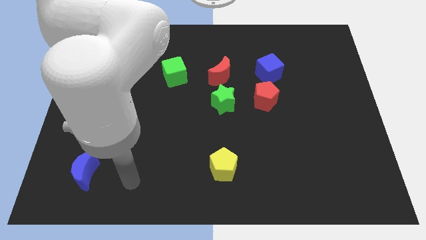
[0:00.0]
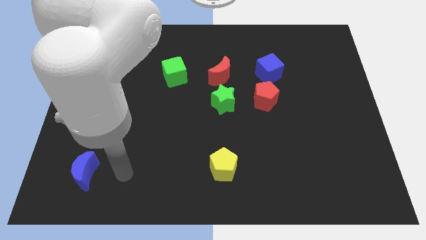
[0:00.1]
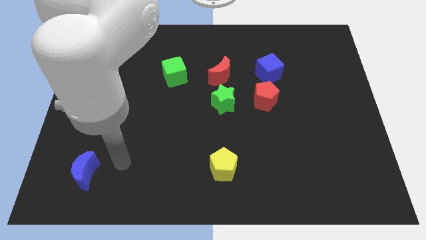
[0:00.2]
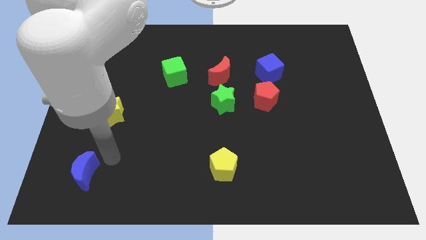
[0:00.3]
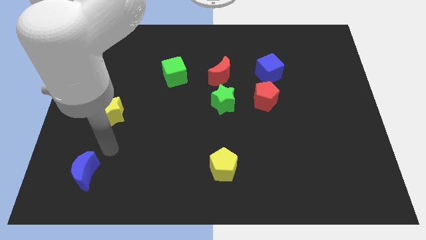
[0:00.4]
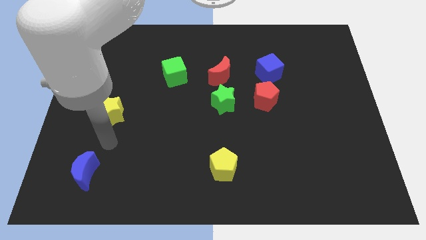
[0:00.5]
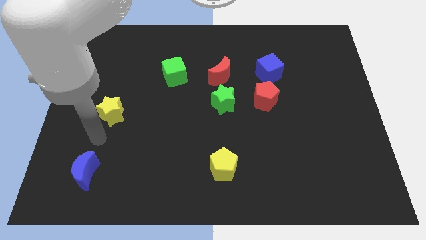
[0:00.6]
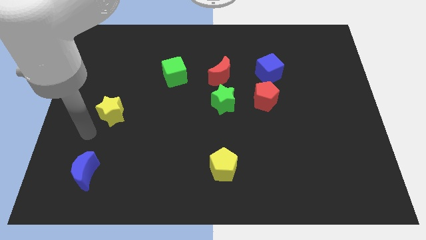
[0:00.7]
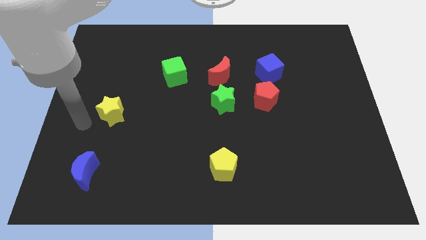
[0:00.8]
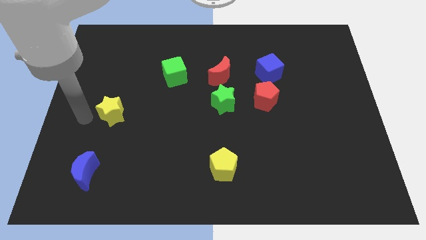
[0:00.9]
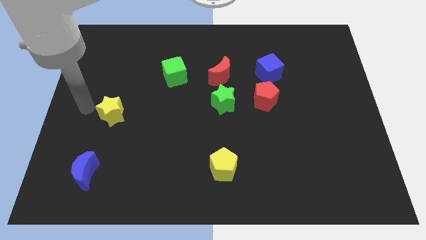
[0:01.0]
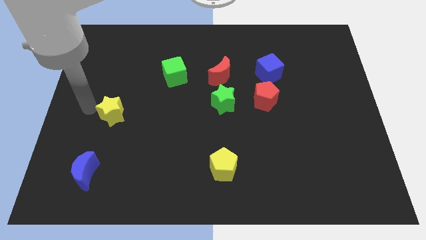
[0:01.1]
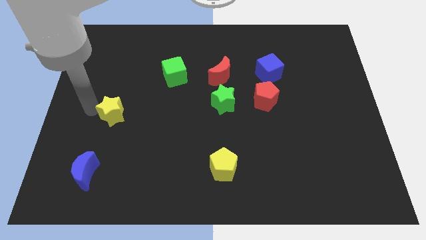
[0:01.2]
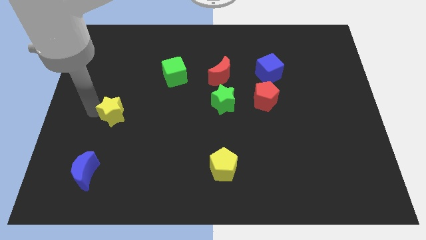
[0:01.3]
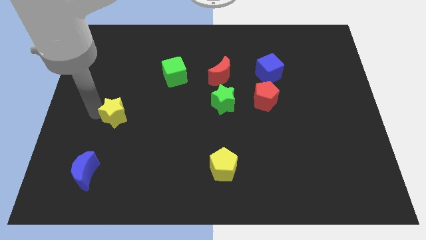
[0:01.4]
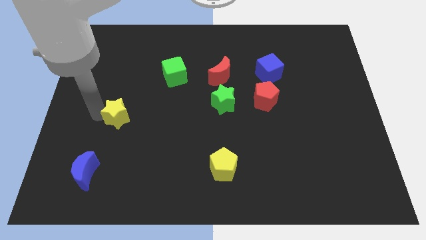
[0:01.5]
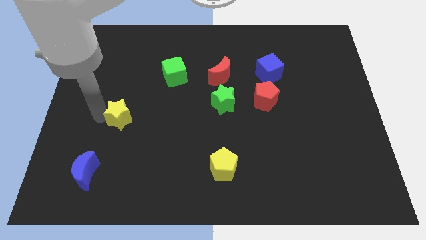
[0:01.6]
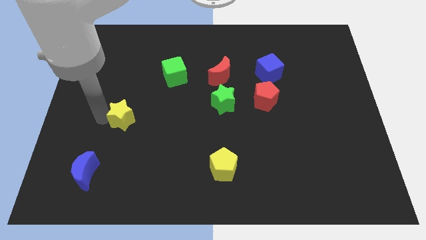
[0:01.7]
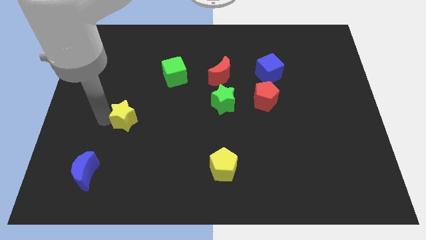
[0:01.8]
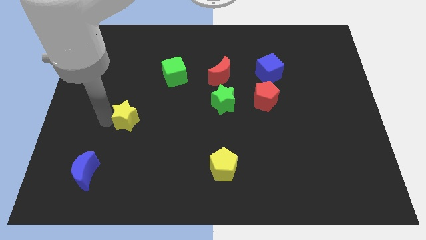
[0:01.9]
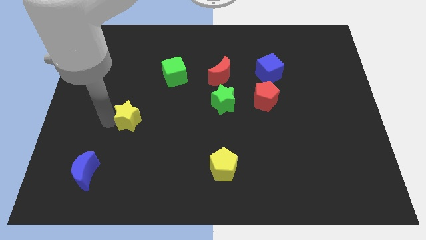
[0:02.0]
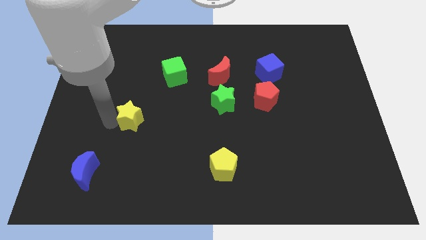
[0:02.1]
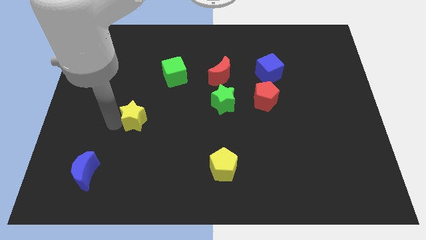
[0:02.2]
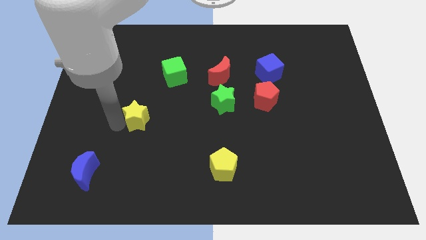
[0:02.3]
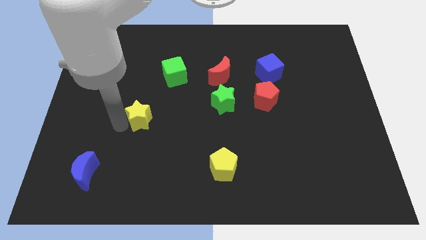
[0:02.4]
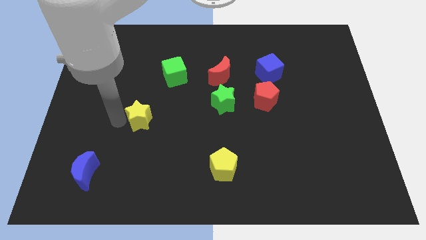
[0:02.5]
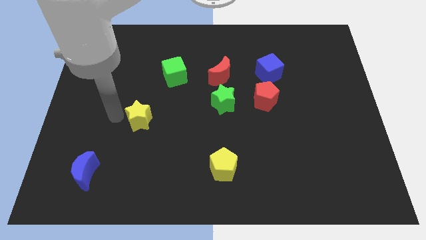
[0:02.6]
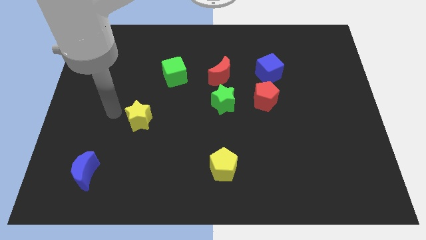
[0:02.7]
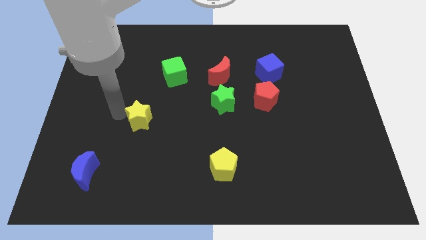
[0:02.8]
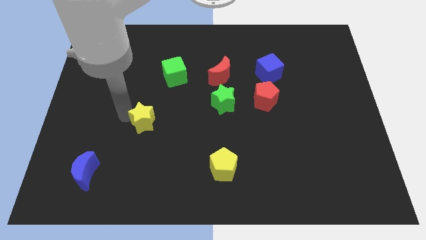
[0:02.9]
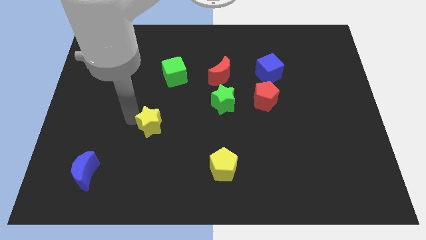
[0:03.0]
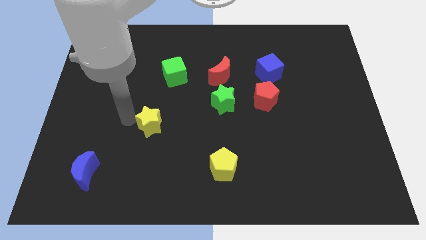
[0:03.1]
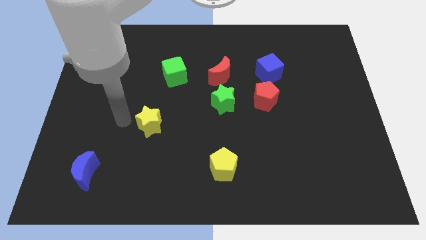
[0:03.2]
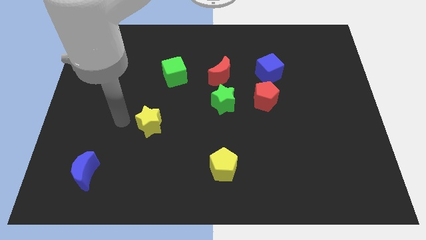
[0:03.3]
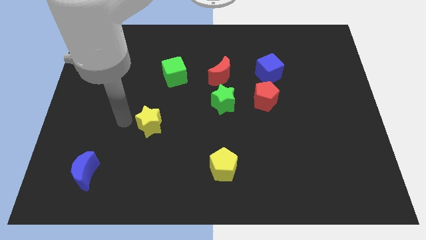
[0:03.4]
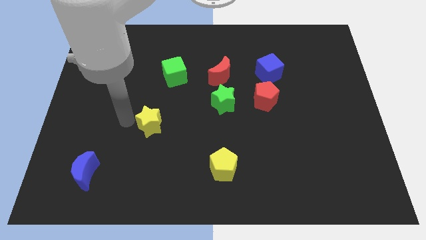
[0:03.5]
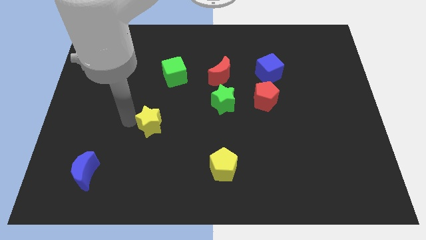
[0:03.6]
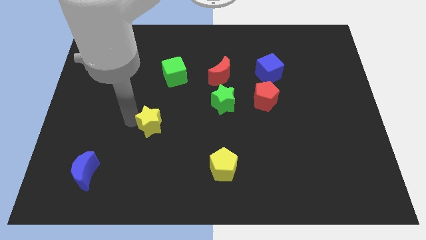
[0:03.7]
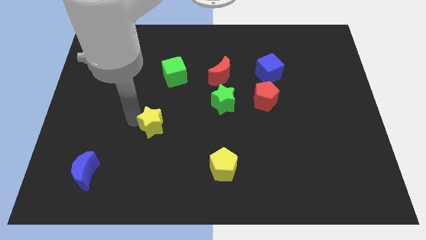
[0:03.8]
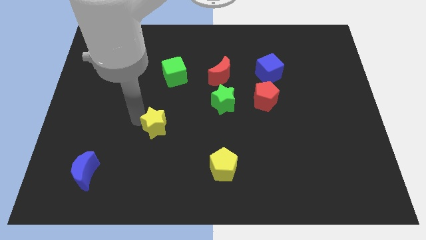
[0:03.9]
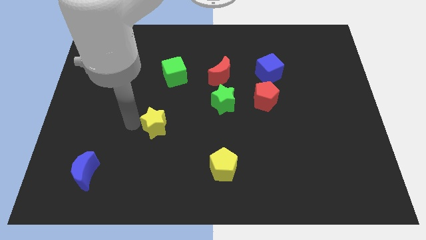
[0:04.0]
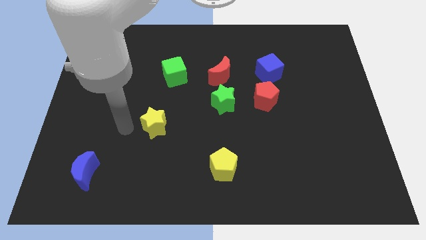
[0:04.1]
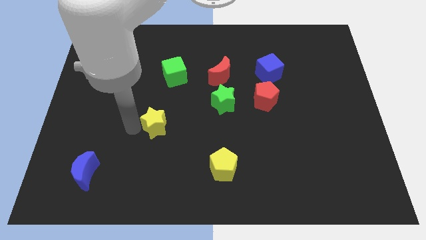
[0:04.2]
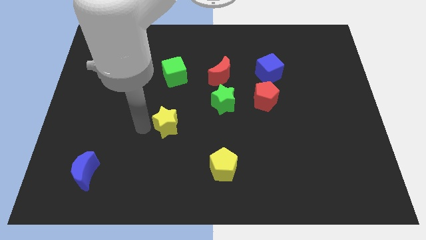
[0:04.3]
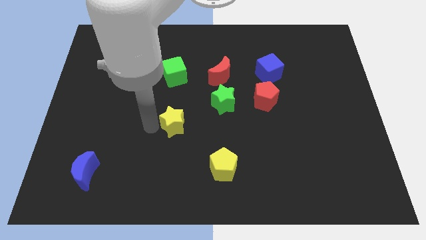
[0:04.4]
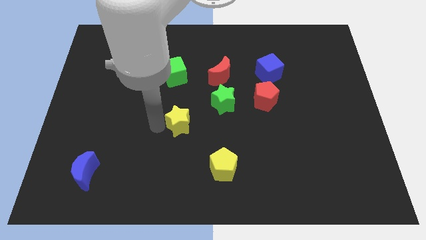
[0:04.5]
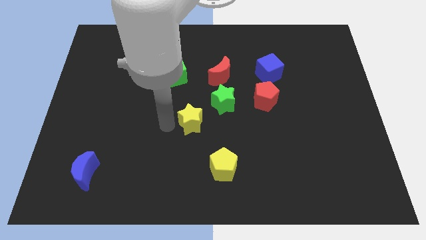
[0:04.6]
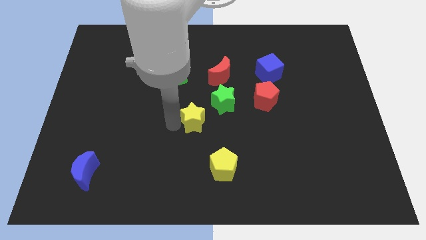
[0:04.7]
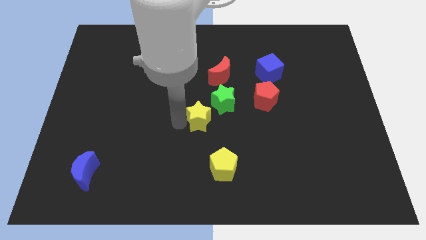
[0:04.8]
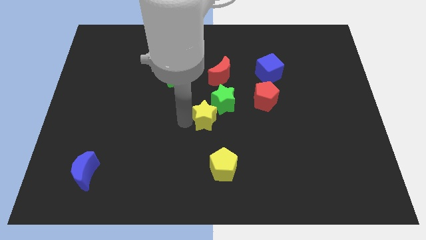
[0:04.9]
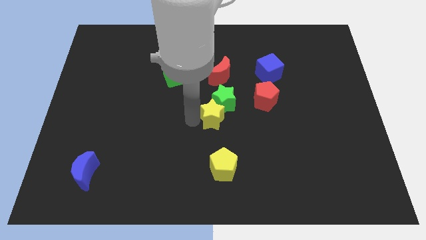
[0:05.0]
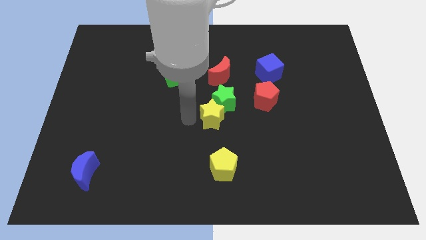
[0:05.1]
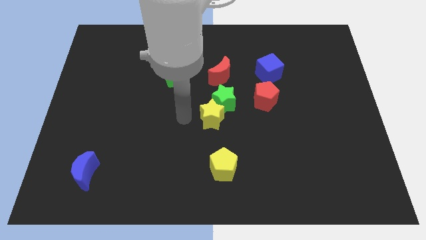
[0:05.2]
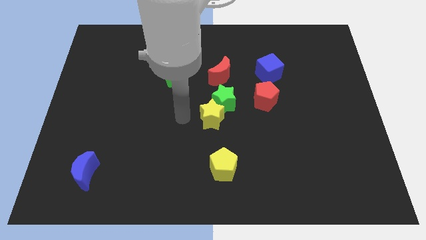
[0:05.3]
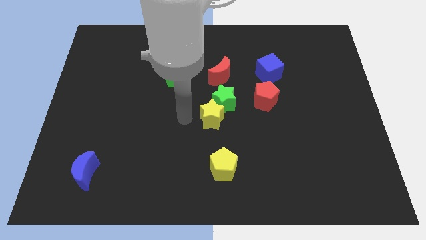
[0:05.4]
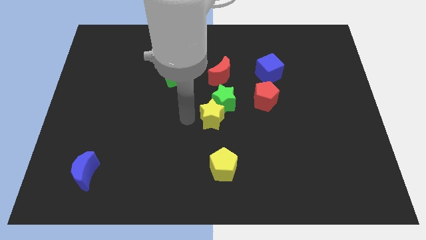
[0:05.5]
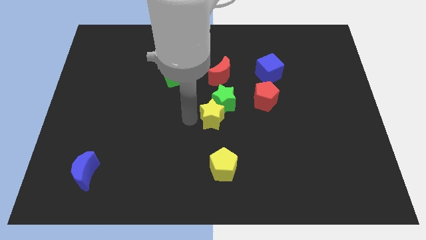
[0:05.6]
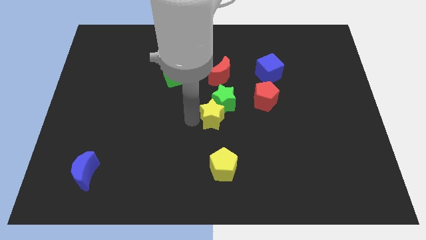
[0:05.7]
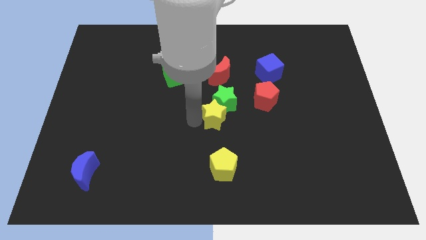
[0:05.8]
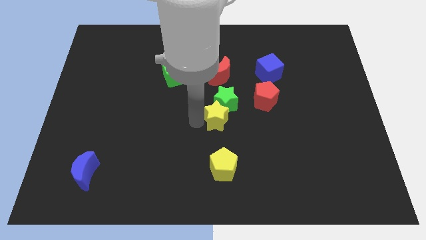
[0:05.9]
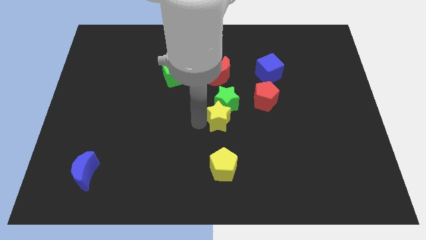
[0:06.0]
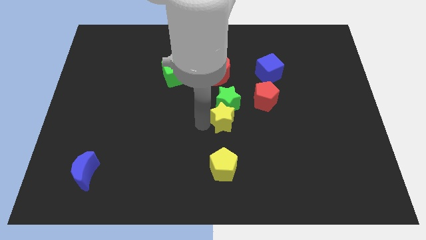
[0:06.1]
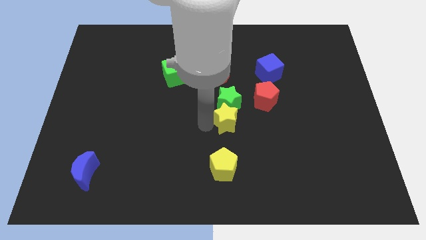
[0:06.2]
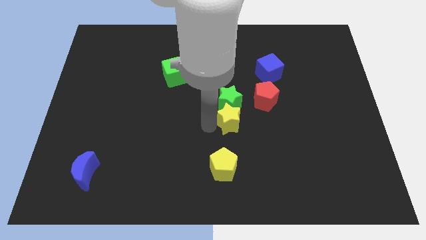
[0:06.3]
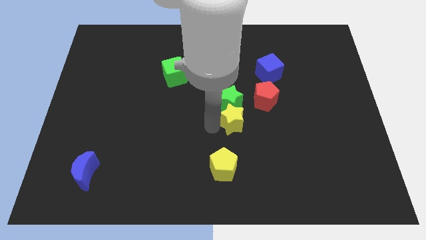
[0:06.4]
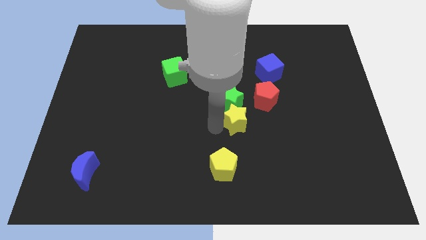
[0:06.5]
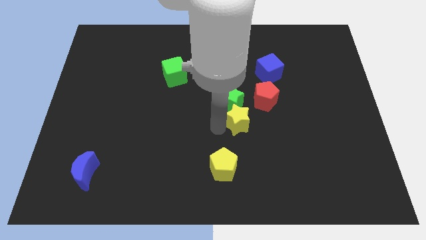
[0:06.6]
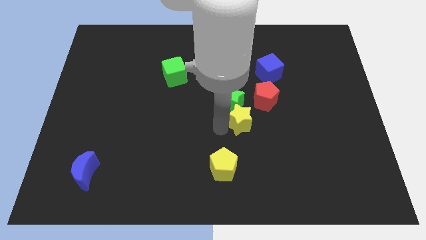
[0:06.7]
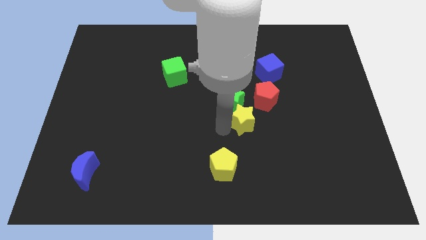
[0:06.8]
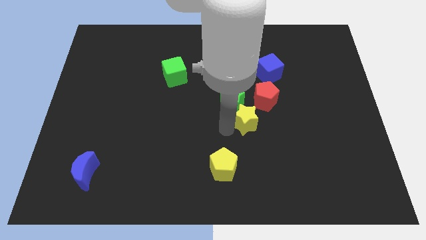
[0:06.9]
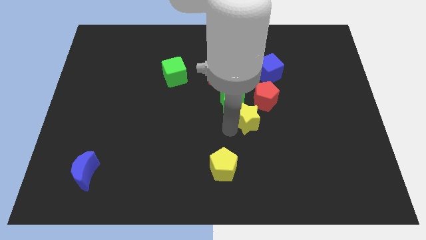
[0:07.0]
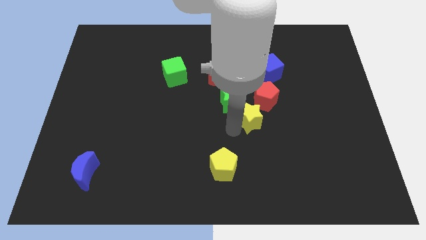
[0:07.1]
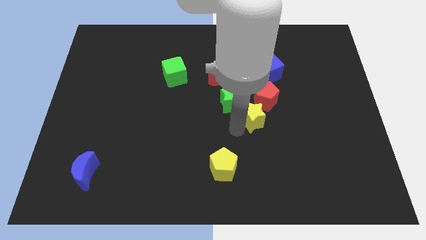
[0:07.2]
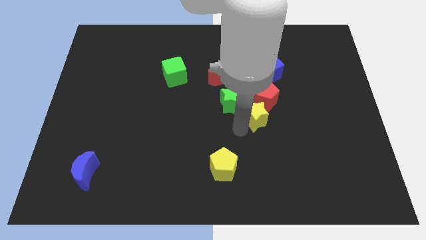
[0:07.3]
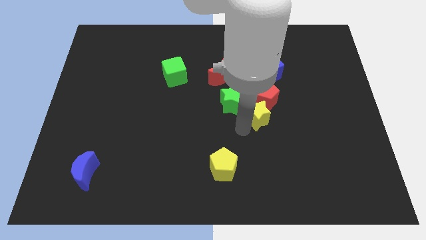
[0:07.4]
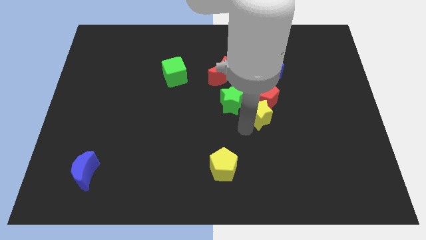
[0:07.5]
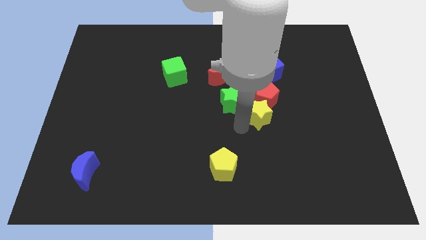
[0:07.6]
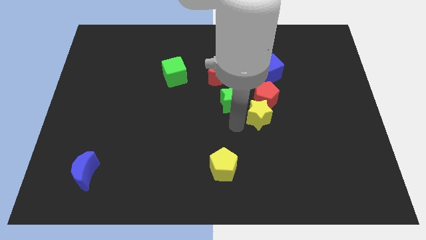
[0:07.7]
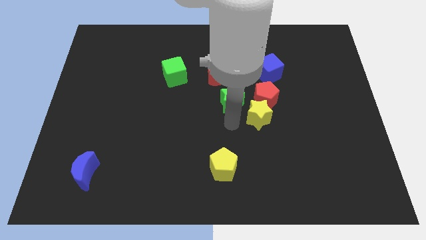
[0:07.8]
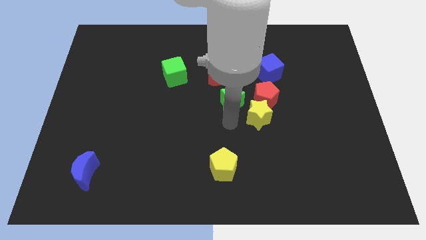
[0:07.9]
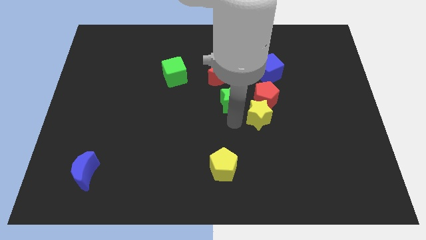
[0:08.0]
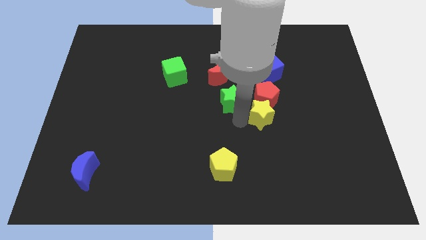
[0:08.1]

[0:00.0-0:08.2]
slide the yellow star diagonally down and to the right of the red pentagon
